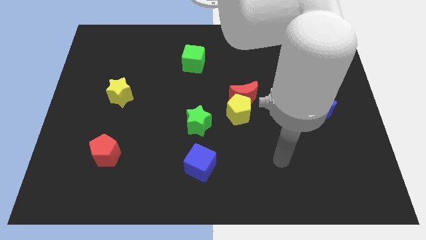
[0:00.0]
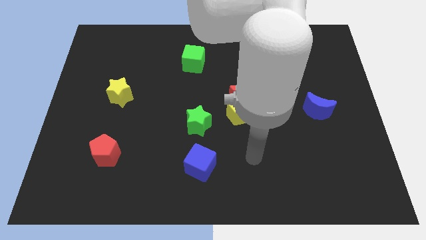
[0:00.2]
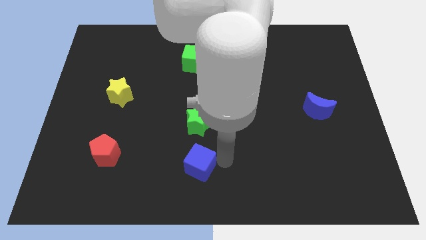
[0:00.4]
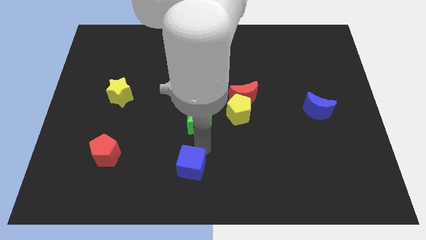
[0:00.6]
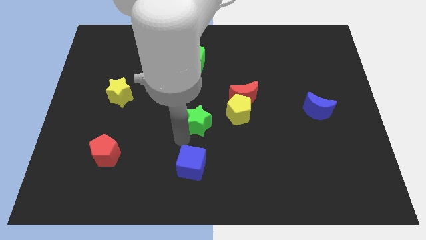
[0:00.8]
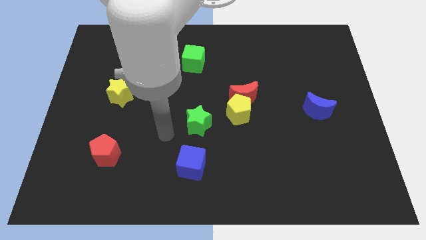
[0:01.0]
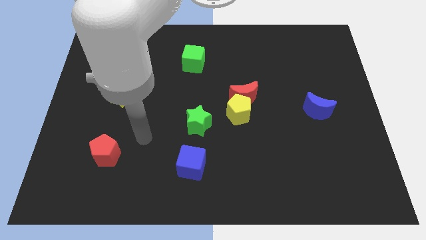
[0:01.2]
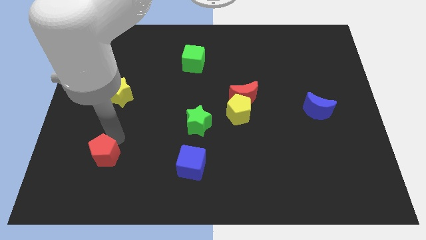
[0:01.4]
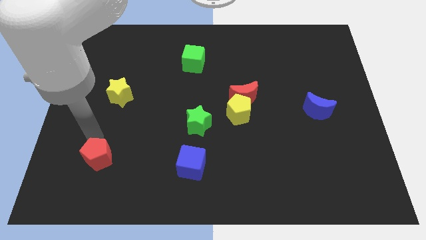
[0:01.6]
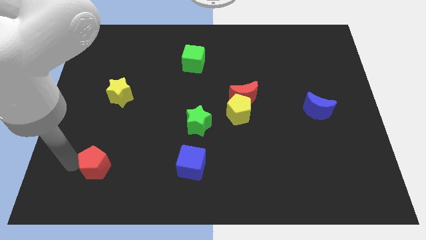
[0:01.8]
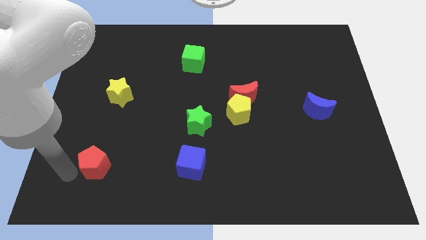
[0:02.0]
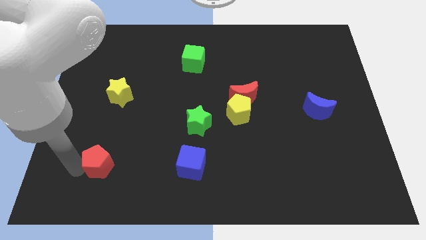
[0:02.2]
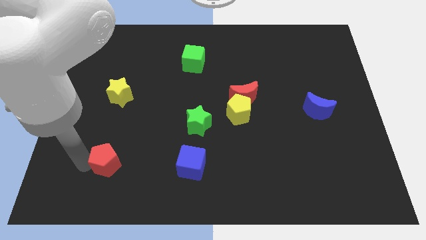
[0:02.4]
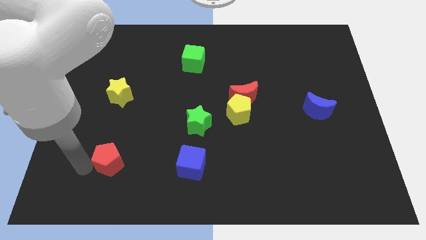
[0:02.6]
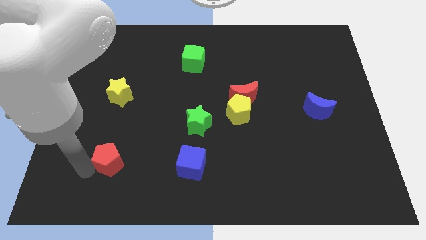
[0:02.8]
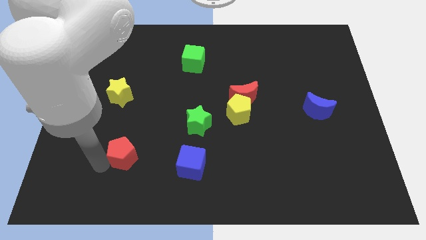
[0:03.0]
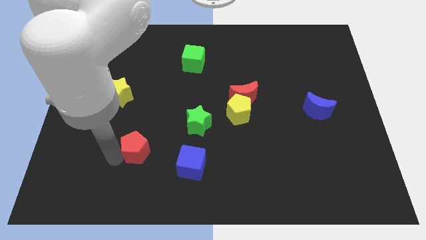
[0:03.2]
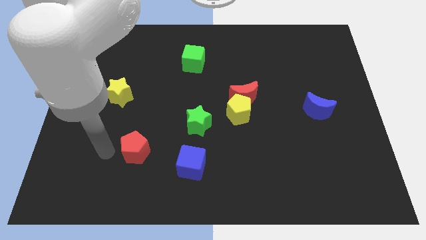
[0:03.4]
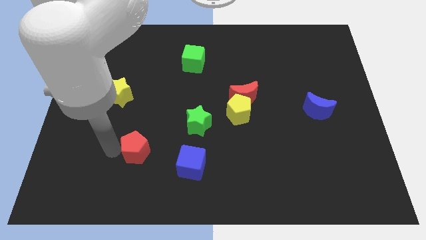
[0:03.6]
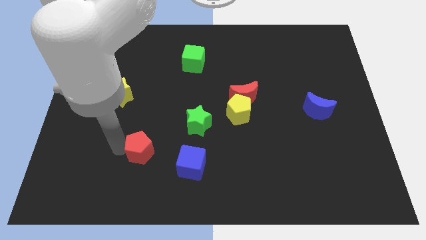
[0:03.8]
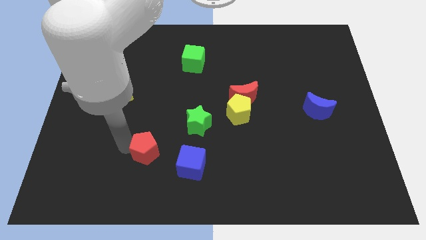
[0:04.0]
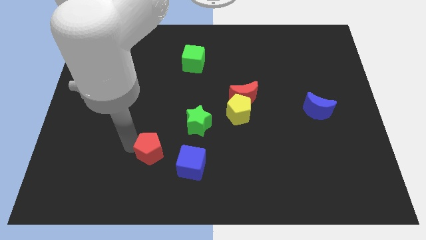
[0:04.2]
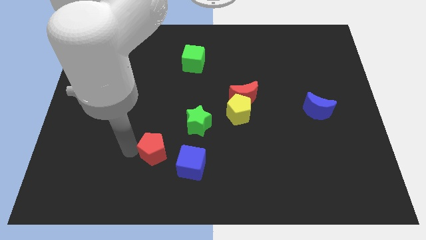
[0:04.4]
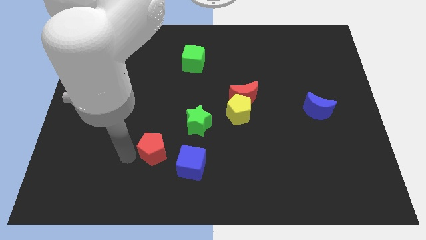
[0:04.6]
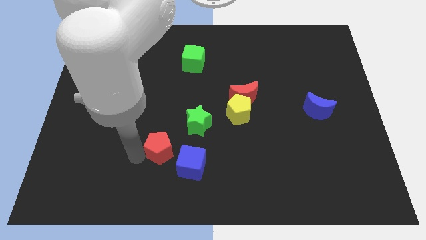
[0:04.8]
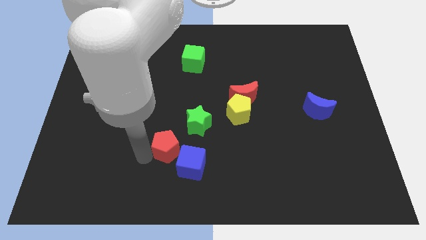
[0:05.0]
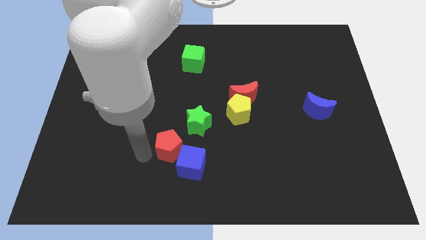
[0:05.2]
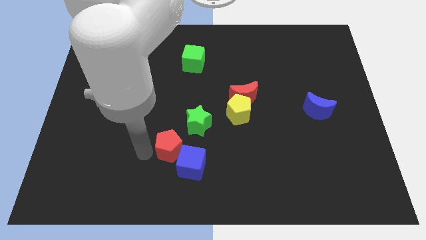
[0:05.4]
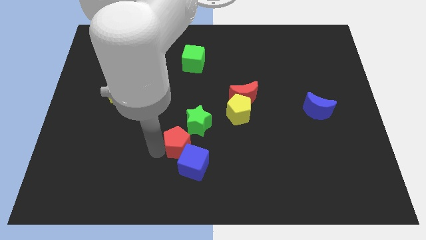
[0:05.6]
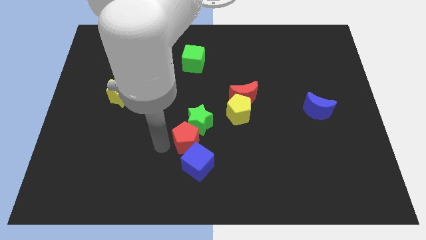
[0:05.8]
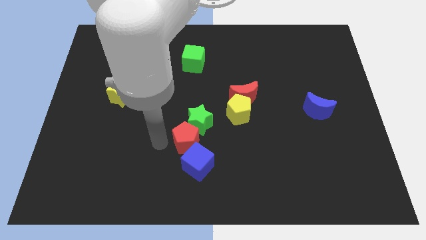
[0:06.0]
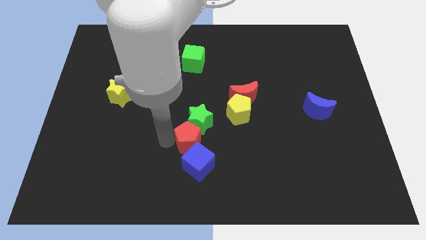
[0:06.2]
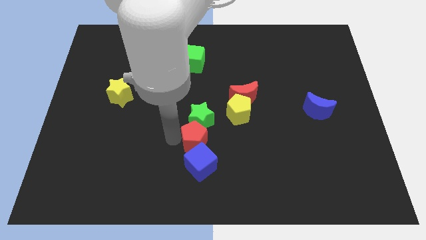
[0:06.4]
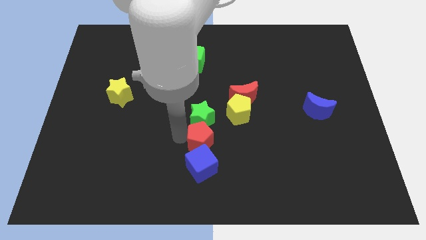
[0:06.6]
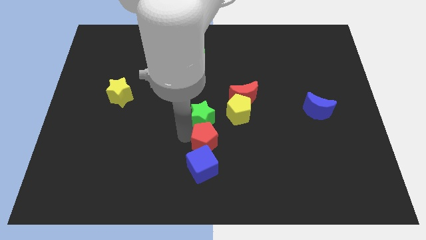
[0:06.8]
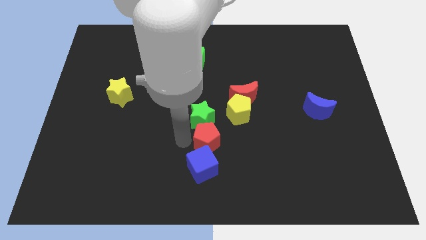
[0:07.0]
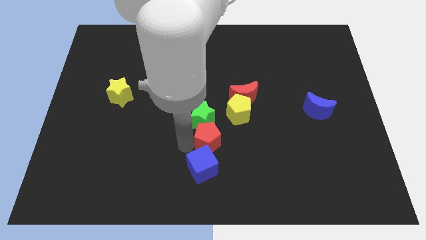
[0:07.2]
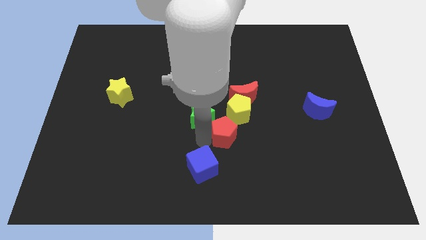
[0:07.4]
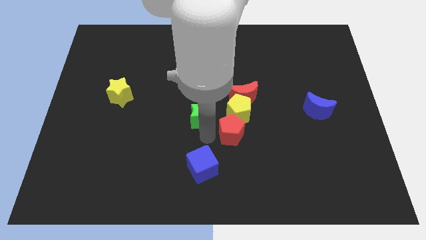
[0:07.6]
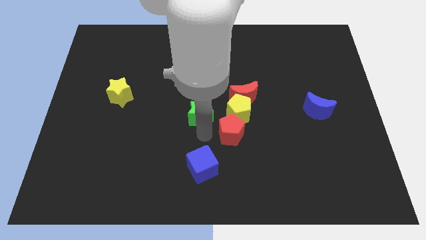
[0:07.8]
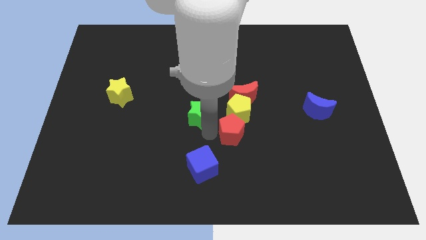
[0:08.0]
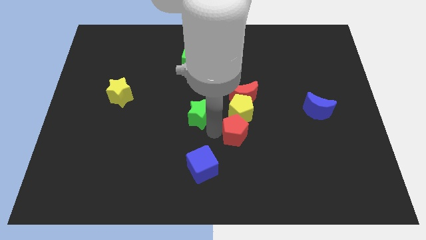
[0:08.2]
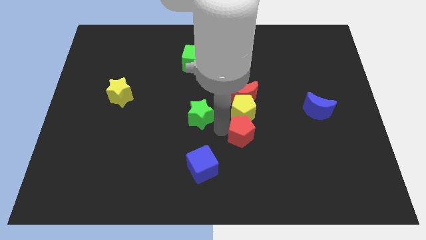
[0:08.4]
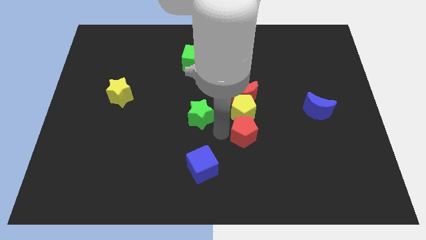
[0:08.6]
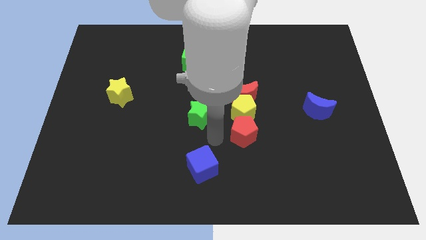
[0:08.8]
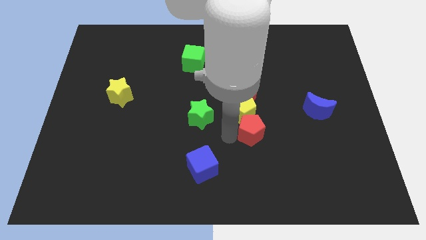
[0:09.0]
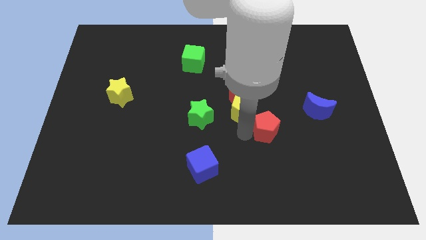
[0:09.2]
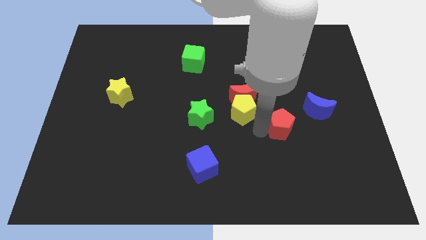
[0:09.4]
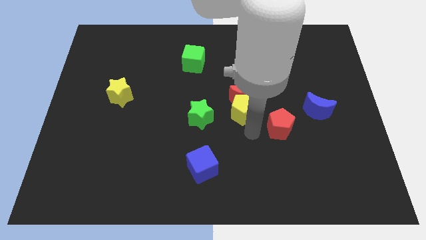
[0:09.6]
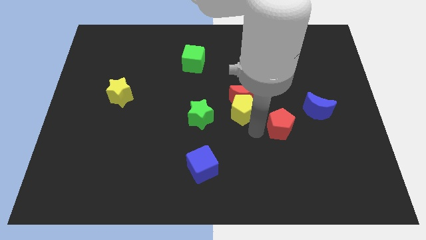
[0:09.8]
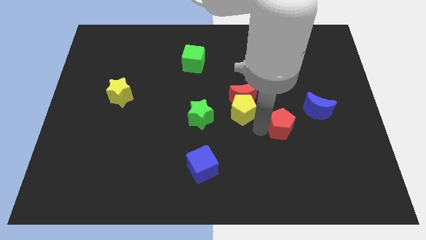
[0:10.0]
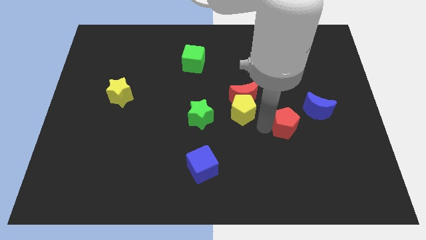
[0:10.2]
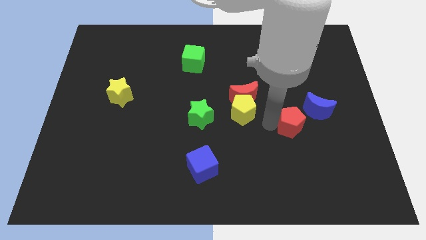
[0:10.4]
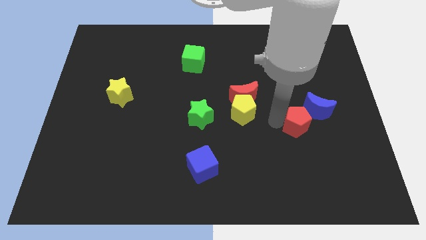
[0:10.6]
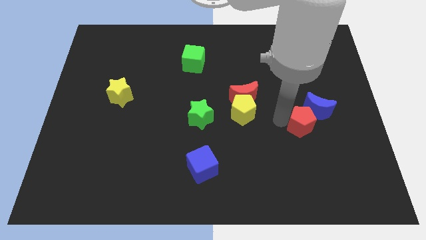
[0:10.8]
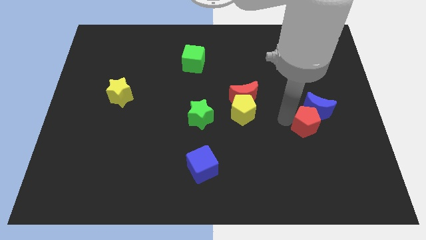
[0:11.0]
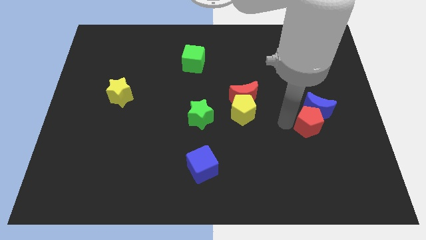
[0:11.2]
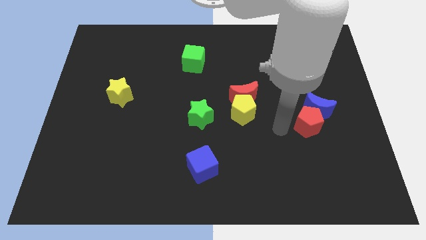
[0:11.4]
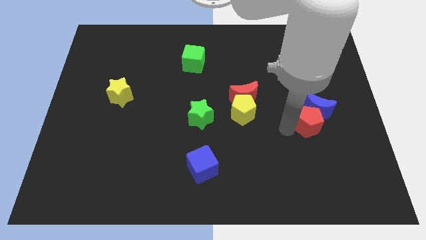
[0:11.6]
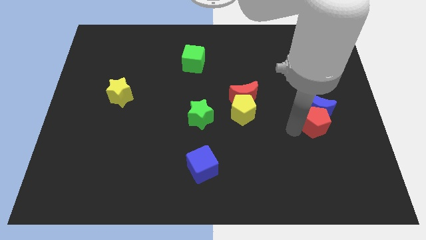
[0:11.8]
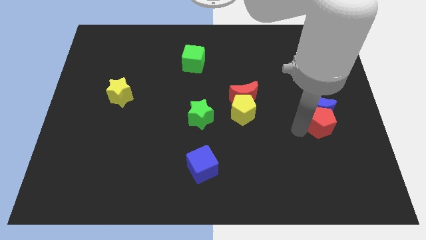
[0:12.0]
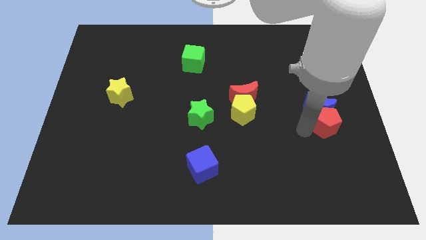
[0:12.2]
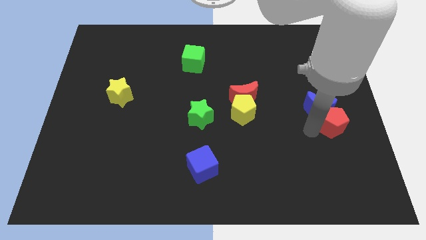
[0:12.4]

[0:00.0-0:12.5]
put the red pentagon to the center right
